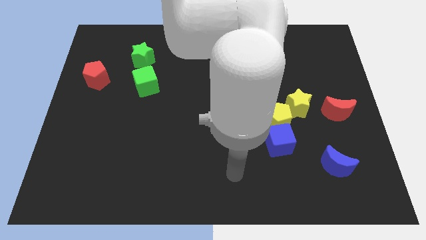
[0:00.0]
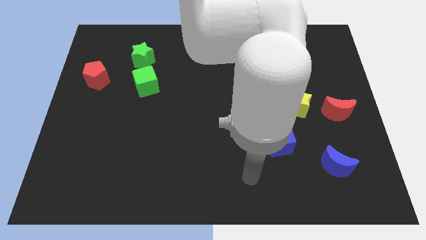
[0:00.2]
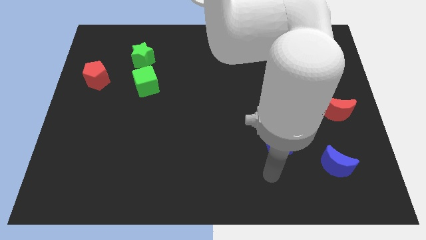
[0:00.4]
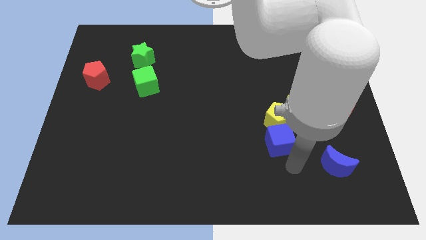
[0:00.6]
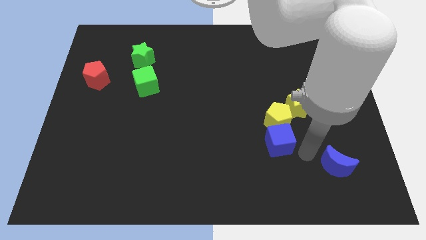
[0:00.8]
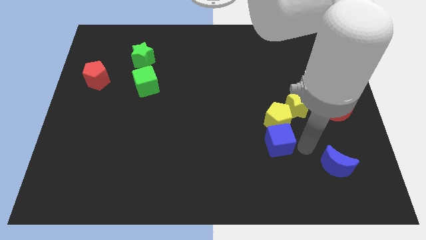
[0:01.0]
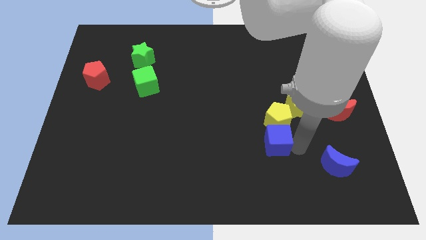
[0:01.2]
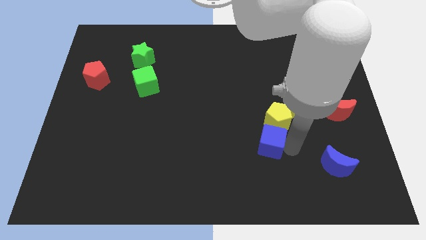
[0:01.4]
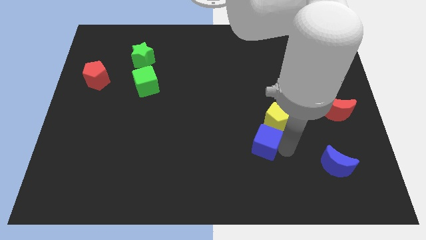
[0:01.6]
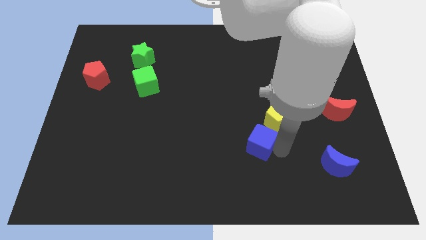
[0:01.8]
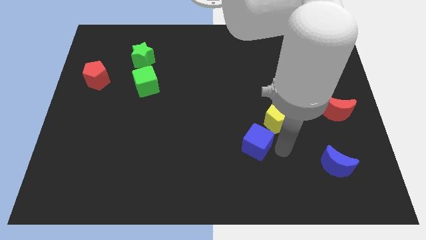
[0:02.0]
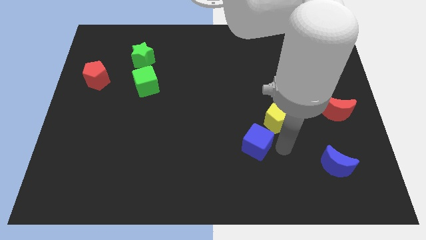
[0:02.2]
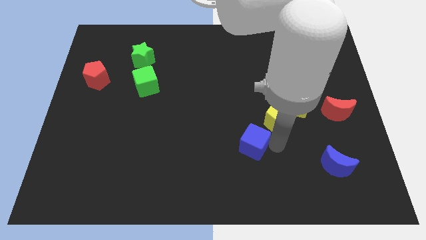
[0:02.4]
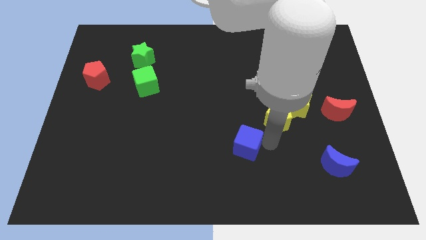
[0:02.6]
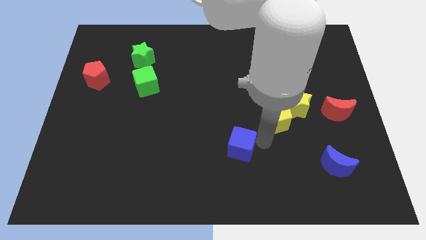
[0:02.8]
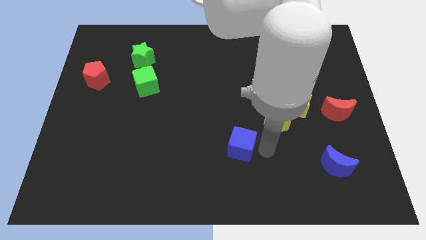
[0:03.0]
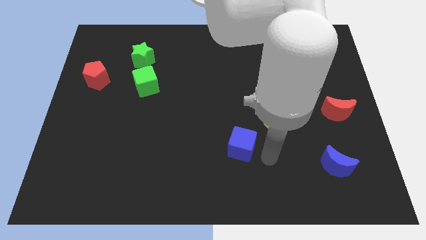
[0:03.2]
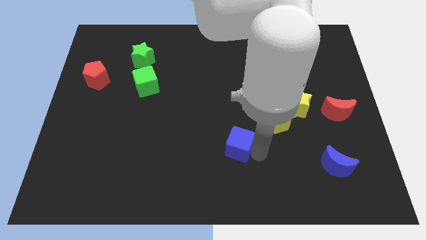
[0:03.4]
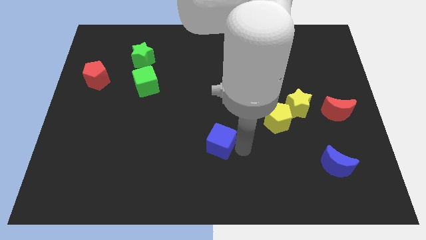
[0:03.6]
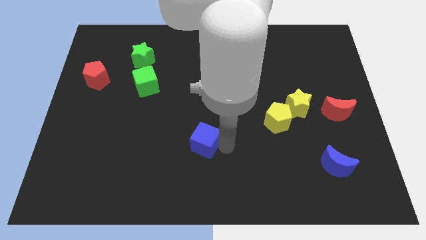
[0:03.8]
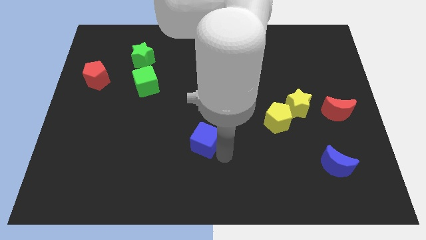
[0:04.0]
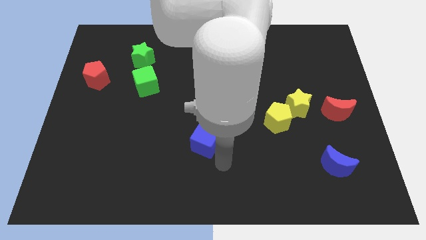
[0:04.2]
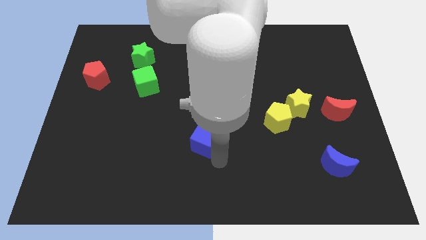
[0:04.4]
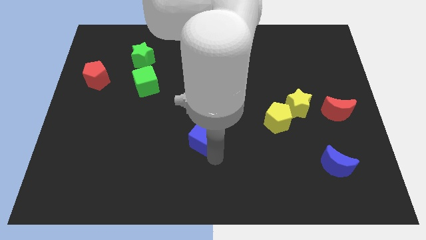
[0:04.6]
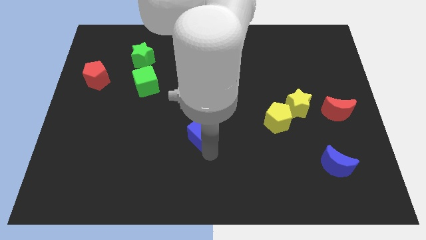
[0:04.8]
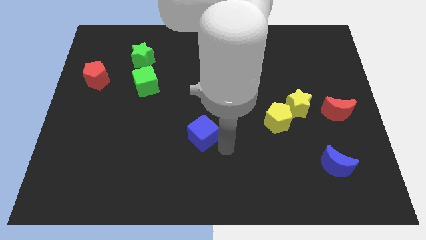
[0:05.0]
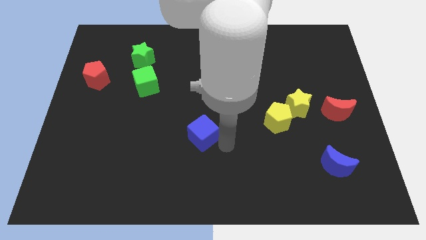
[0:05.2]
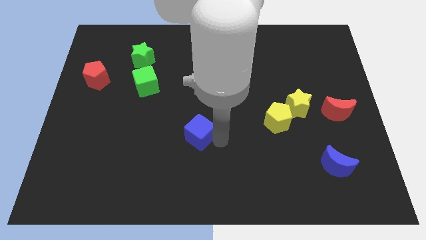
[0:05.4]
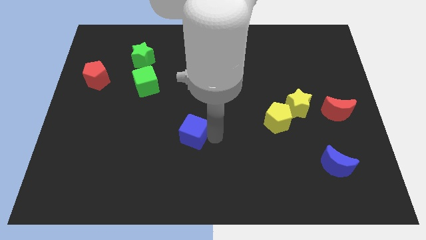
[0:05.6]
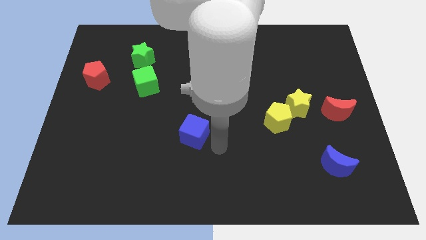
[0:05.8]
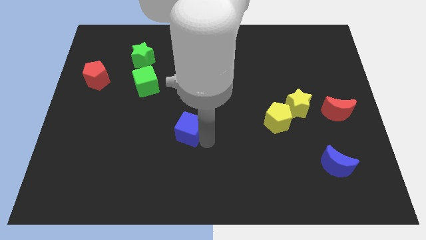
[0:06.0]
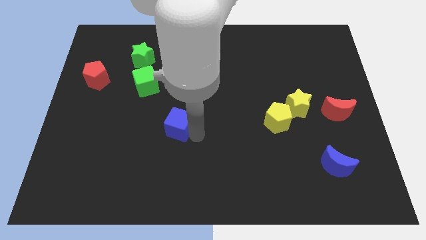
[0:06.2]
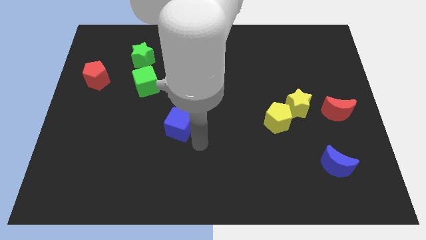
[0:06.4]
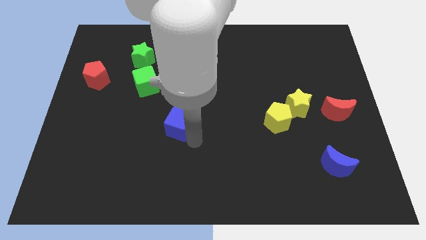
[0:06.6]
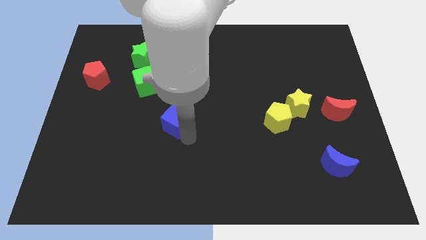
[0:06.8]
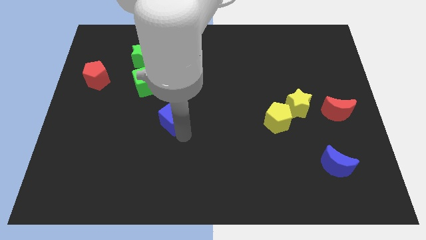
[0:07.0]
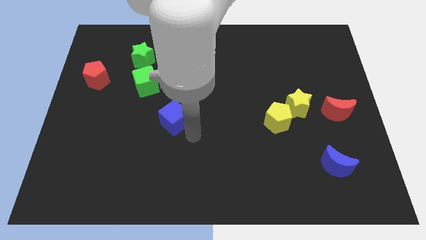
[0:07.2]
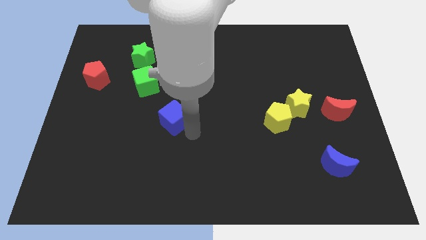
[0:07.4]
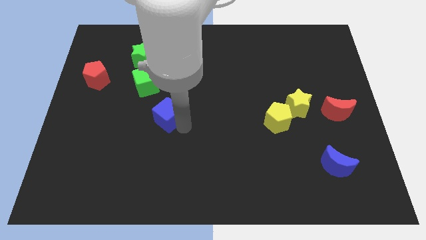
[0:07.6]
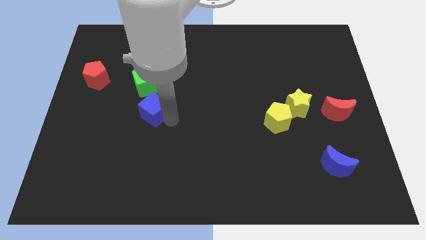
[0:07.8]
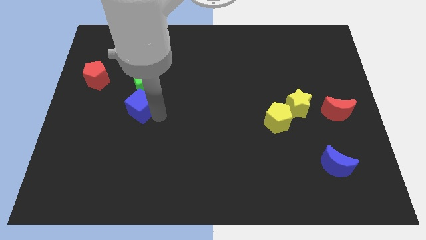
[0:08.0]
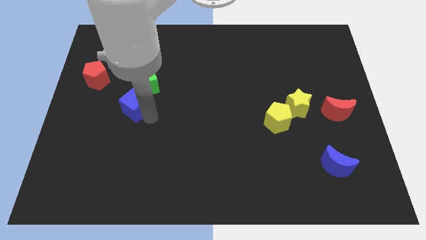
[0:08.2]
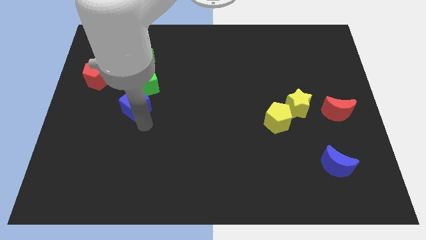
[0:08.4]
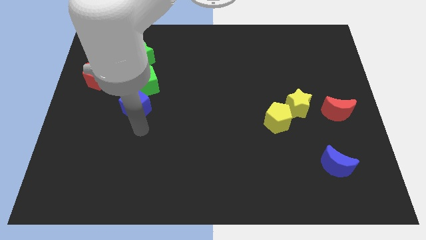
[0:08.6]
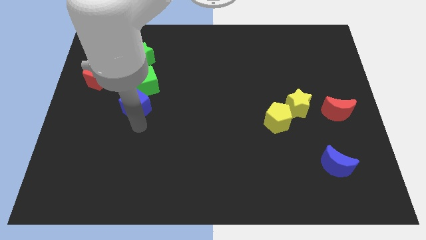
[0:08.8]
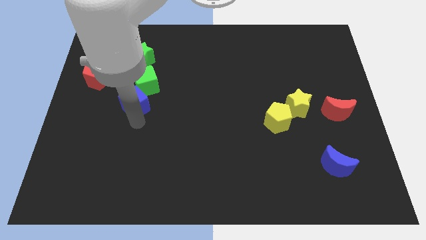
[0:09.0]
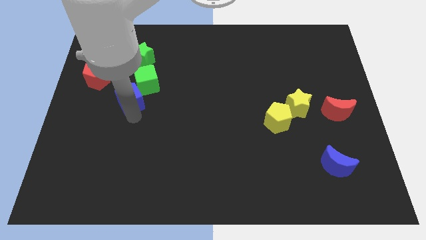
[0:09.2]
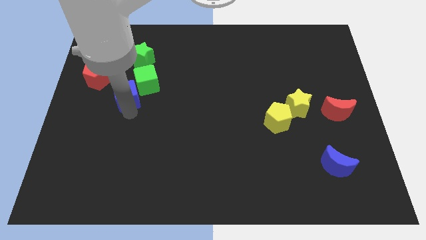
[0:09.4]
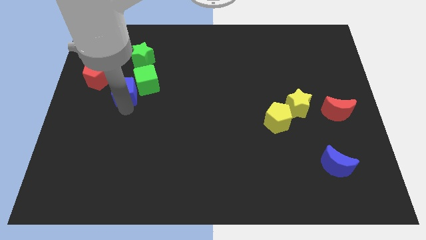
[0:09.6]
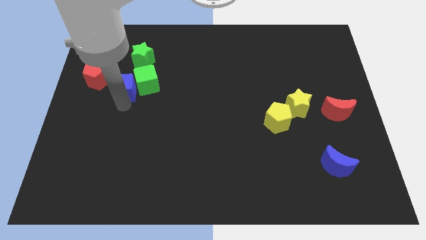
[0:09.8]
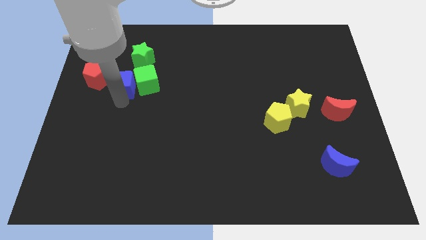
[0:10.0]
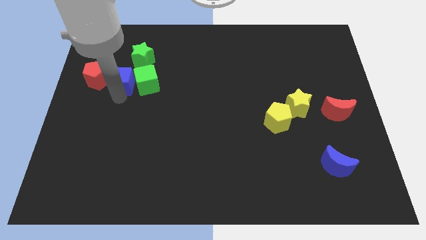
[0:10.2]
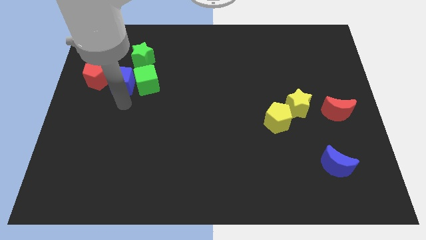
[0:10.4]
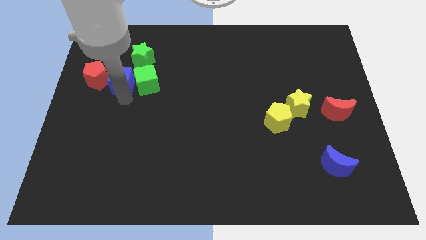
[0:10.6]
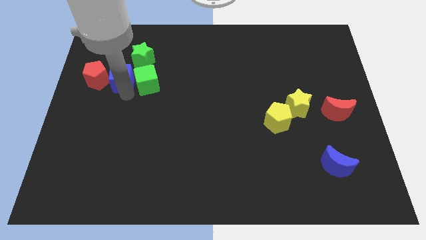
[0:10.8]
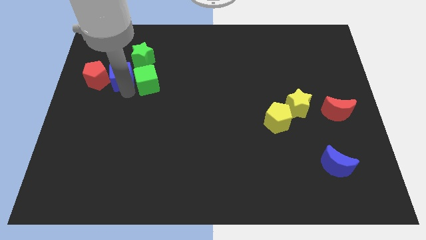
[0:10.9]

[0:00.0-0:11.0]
slide the blue cube to the top right side of the red pentagon
